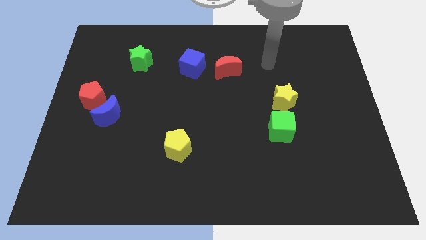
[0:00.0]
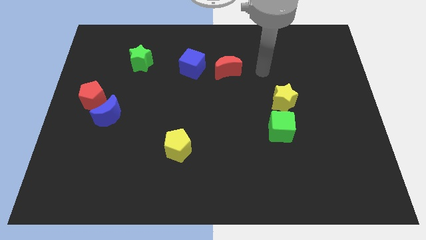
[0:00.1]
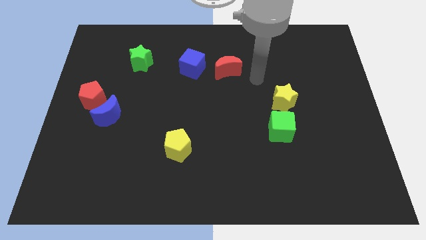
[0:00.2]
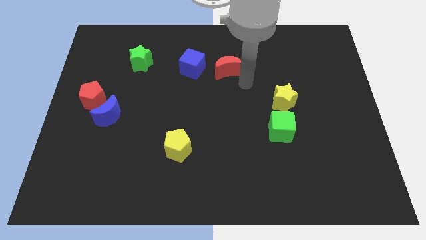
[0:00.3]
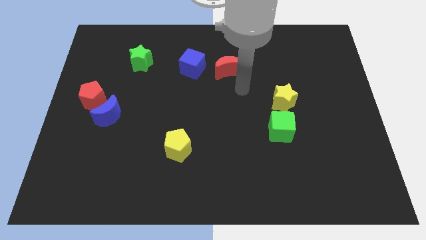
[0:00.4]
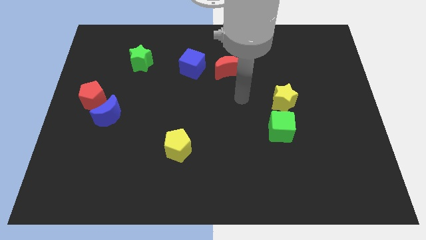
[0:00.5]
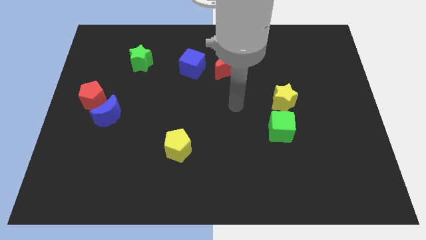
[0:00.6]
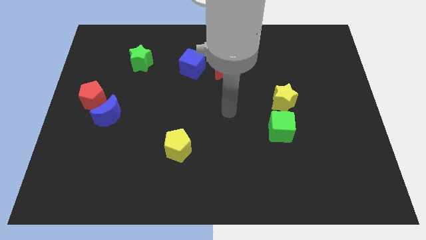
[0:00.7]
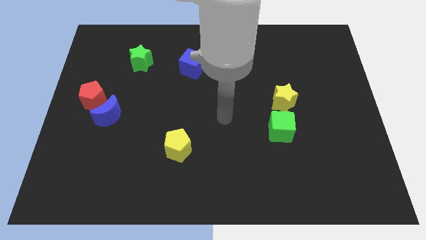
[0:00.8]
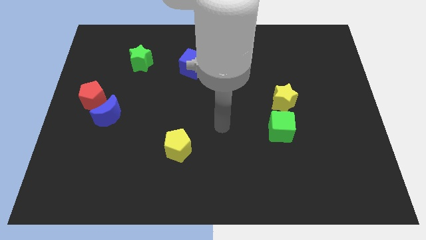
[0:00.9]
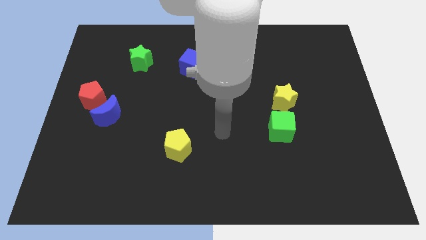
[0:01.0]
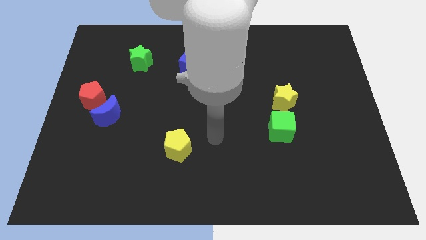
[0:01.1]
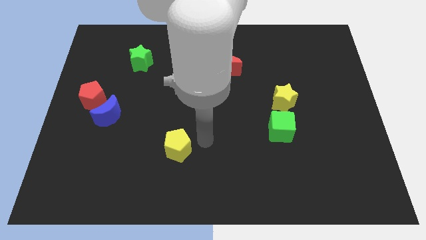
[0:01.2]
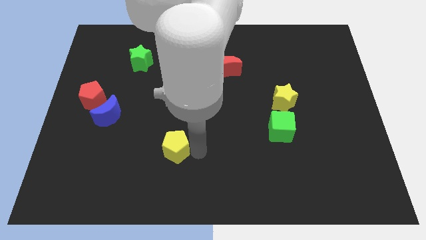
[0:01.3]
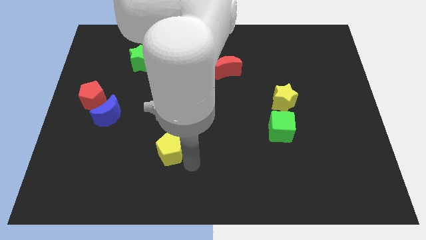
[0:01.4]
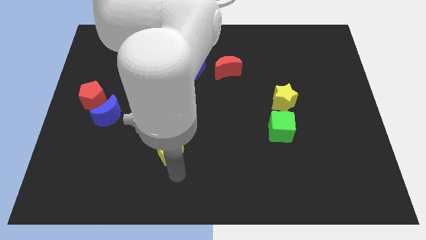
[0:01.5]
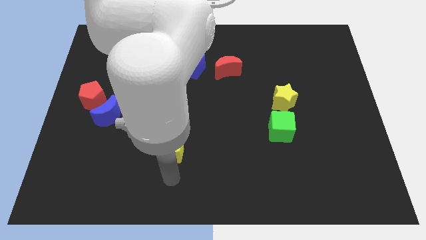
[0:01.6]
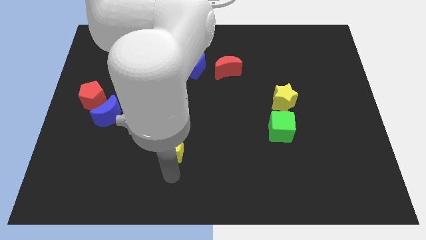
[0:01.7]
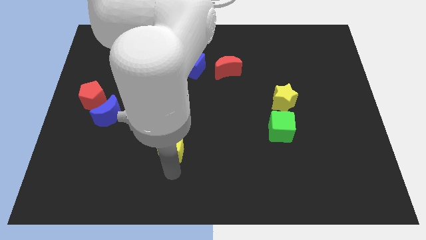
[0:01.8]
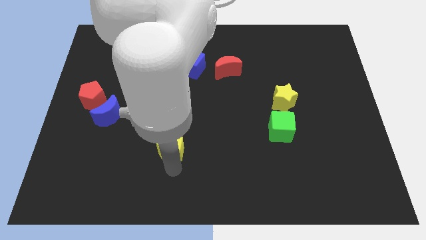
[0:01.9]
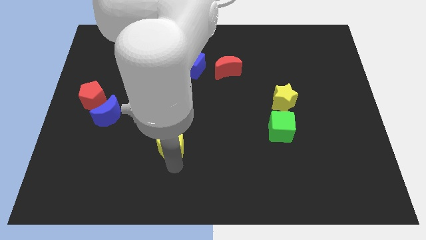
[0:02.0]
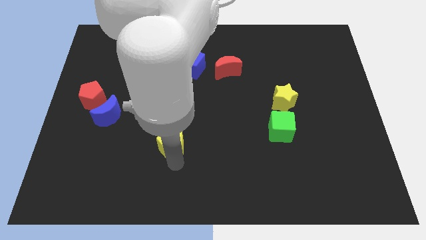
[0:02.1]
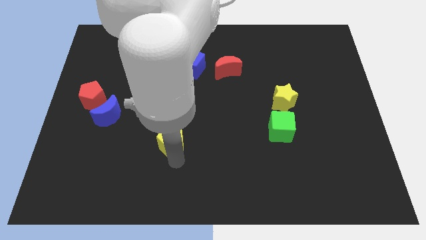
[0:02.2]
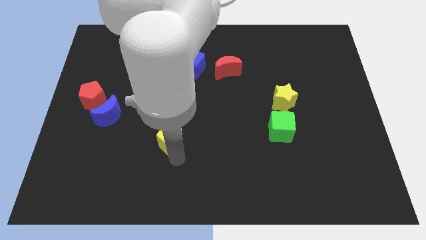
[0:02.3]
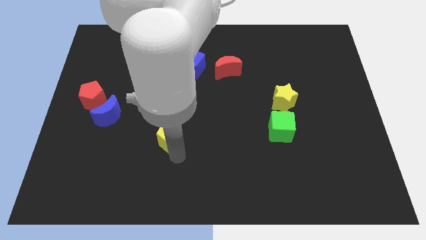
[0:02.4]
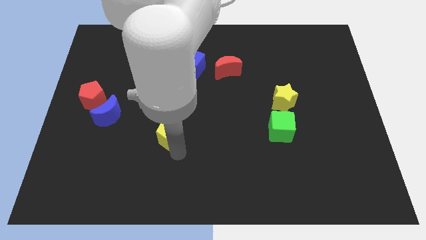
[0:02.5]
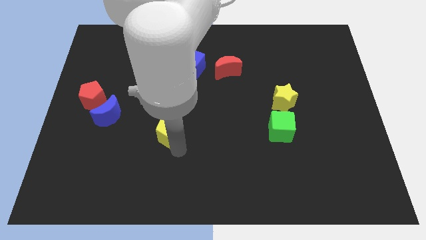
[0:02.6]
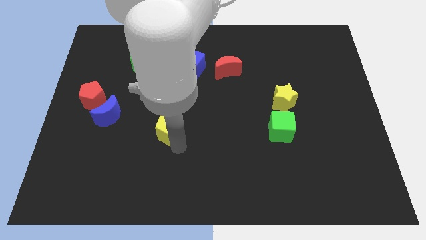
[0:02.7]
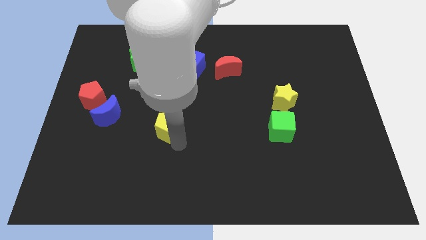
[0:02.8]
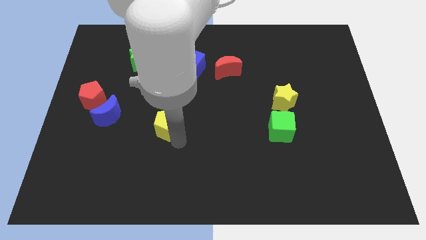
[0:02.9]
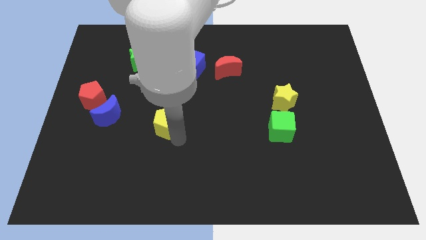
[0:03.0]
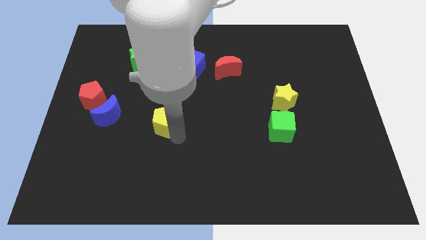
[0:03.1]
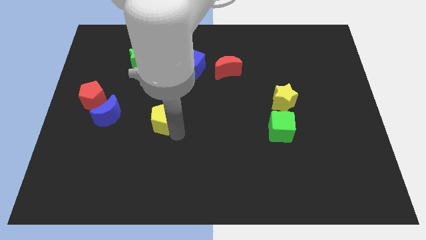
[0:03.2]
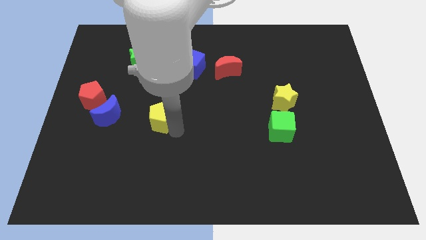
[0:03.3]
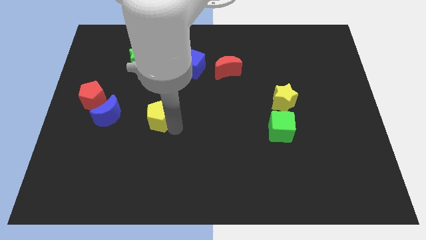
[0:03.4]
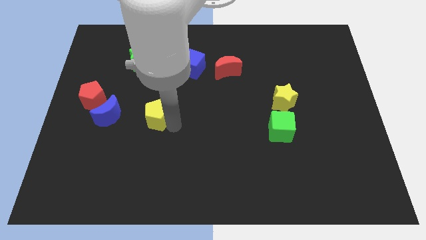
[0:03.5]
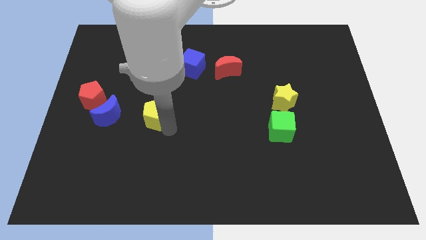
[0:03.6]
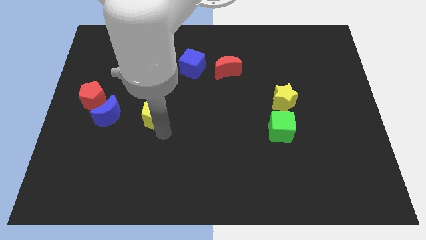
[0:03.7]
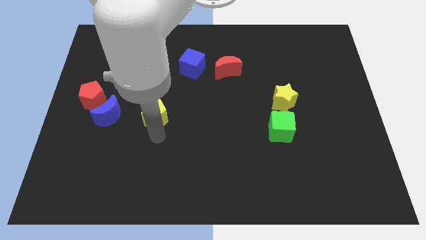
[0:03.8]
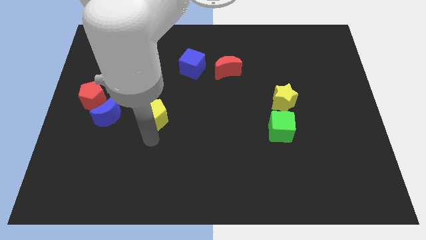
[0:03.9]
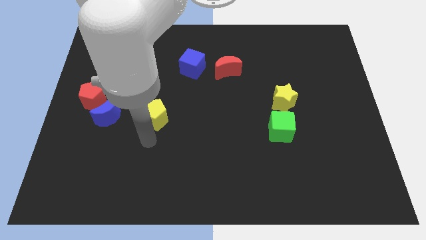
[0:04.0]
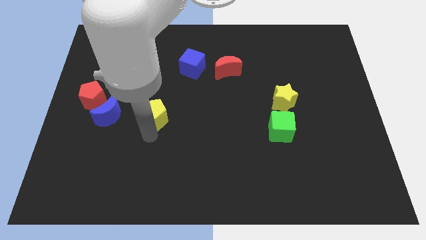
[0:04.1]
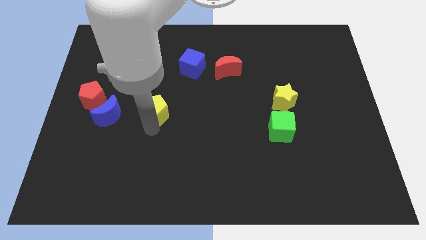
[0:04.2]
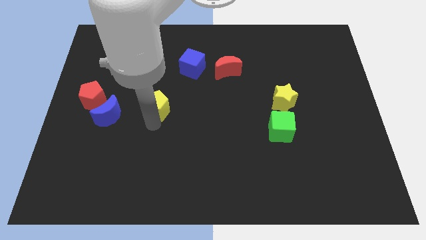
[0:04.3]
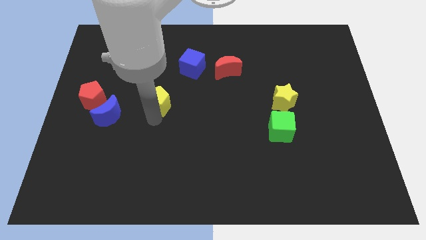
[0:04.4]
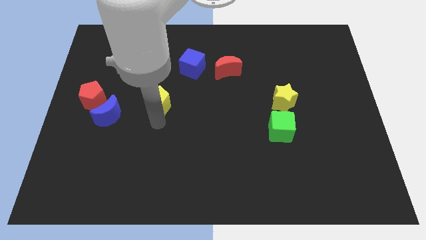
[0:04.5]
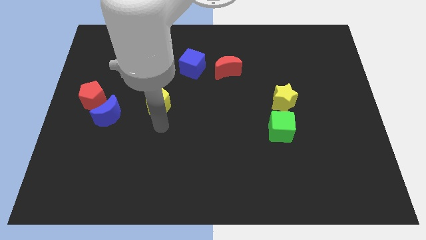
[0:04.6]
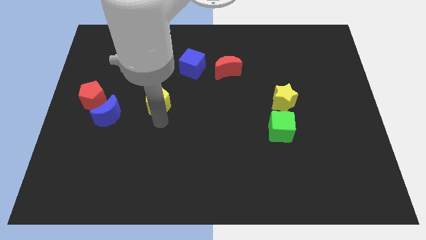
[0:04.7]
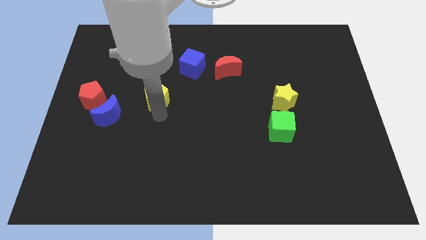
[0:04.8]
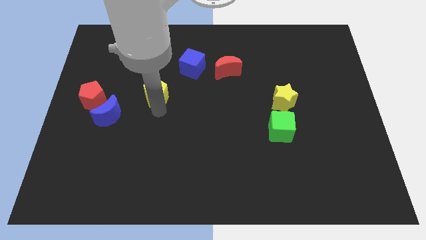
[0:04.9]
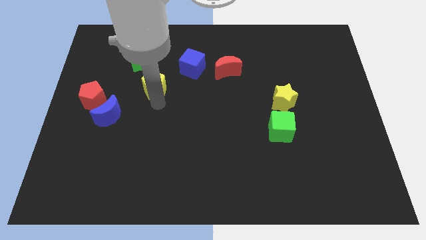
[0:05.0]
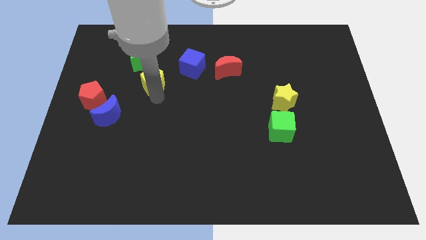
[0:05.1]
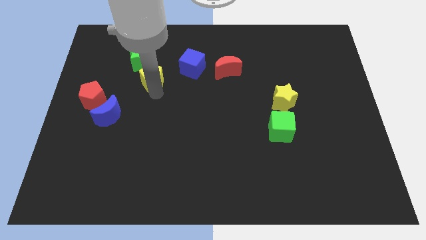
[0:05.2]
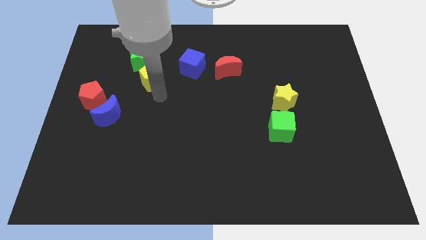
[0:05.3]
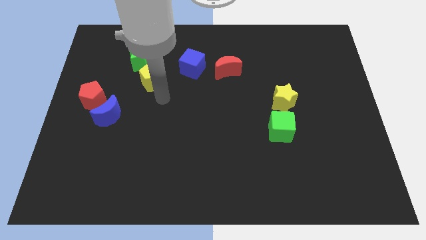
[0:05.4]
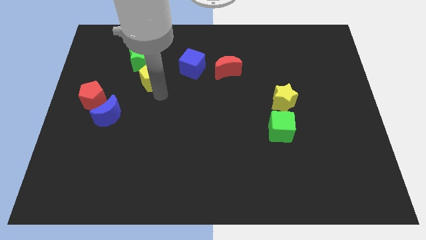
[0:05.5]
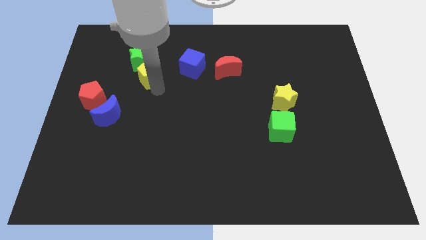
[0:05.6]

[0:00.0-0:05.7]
push the yellow pentagon next to the green star

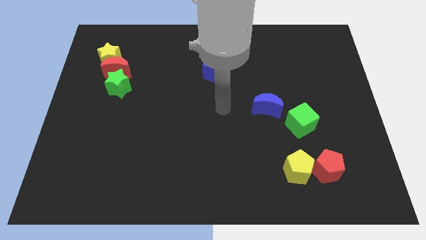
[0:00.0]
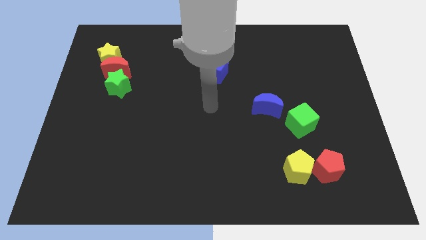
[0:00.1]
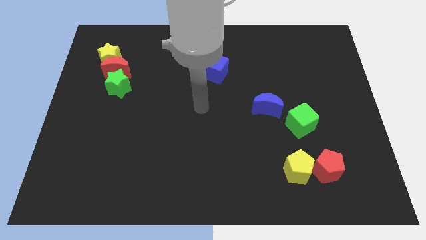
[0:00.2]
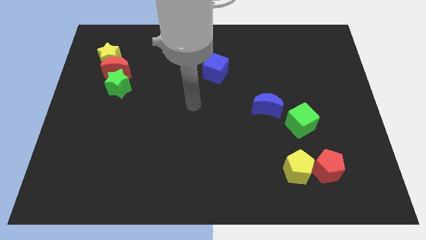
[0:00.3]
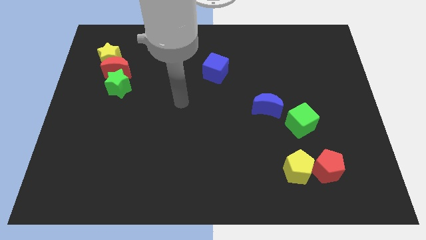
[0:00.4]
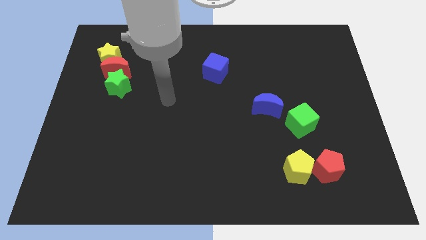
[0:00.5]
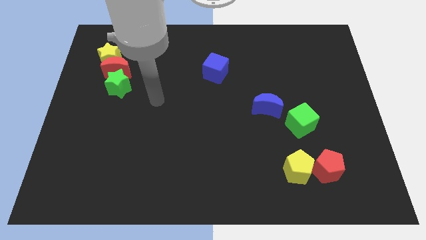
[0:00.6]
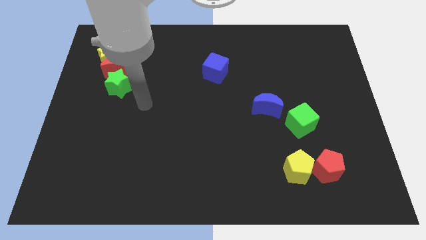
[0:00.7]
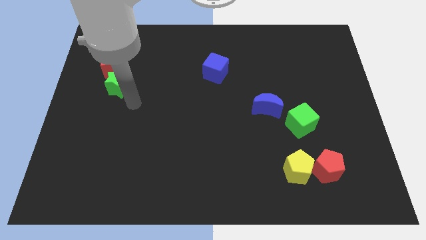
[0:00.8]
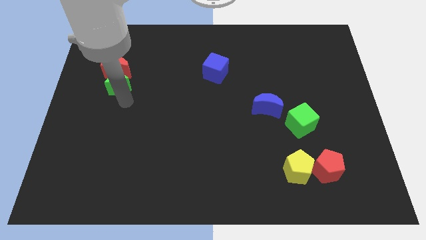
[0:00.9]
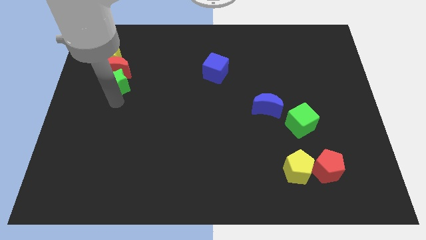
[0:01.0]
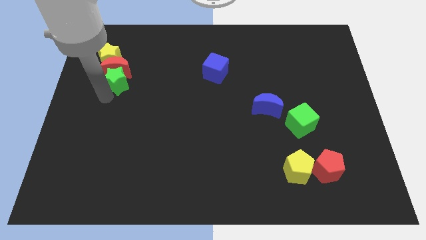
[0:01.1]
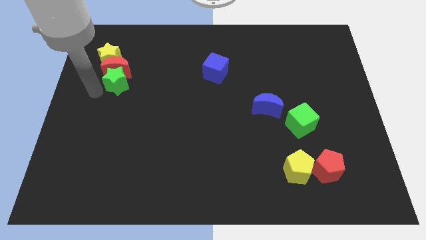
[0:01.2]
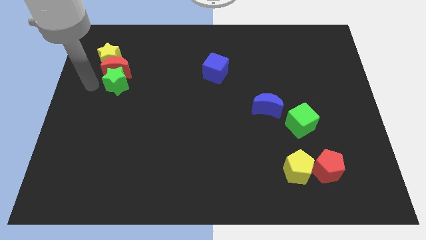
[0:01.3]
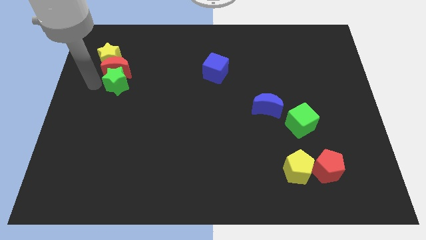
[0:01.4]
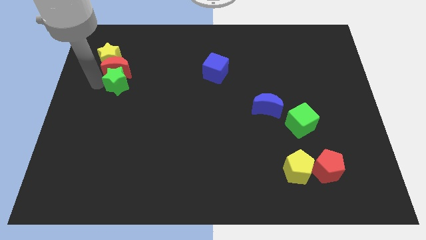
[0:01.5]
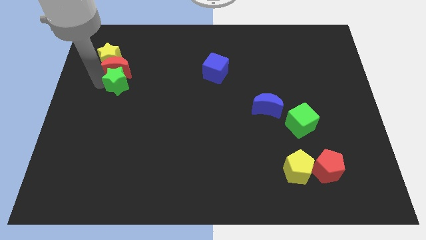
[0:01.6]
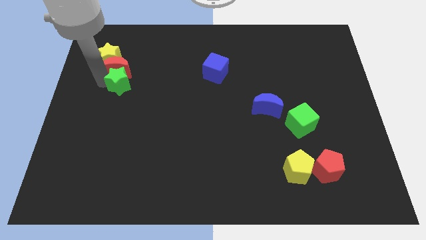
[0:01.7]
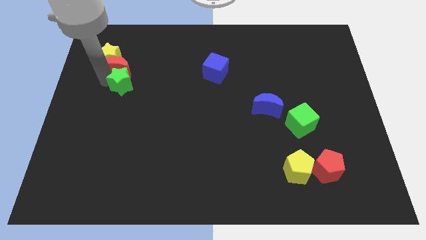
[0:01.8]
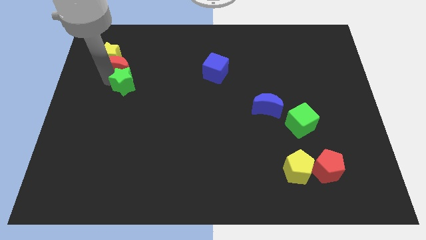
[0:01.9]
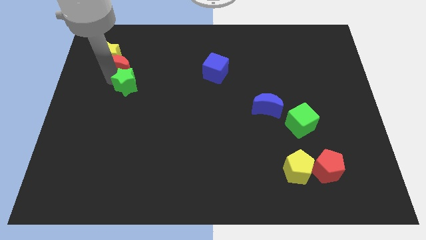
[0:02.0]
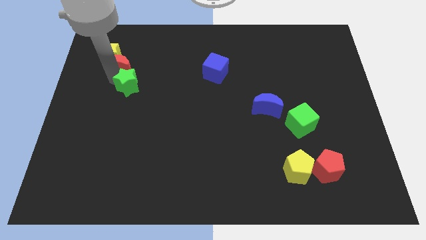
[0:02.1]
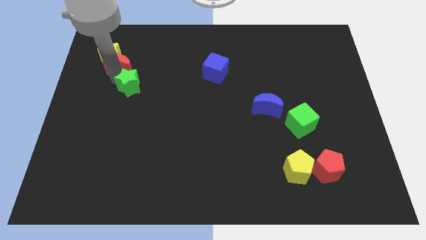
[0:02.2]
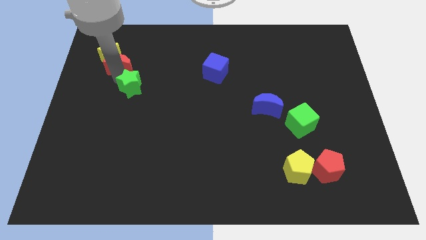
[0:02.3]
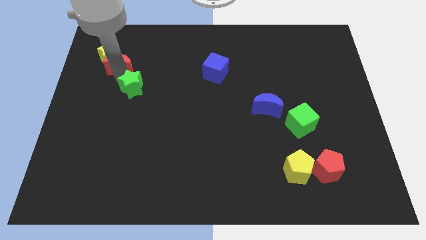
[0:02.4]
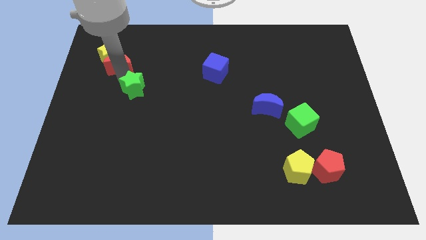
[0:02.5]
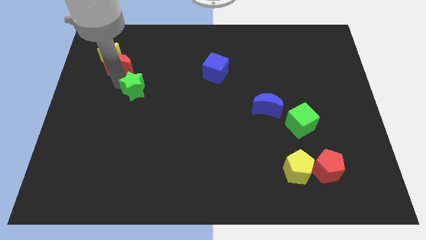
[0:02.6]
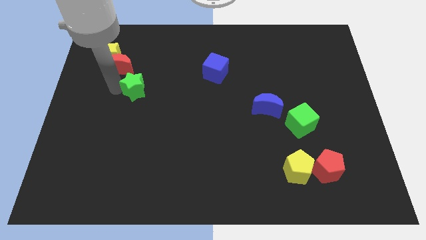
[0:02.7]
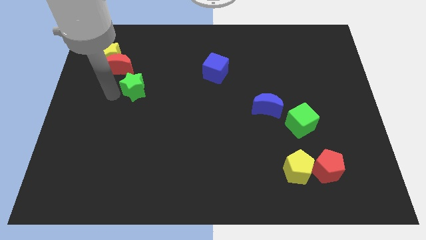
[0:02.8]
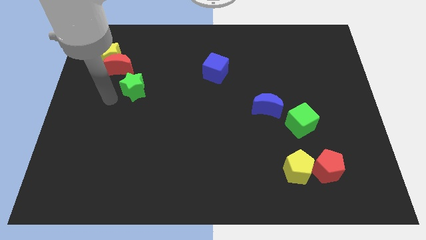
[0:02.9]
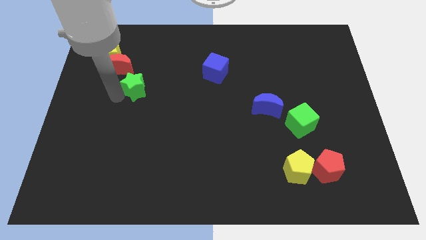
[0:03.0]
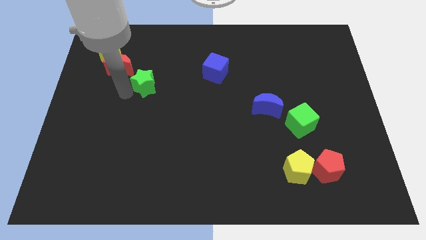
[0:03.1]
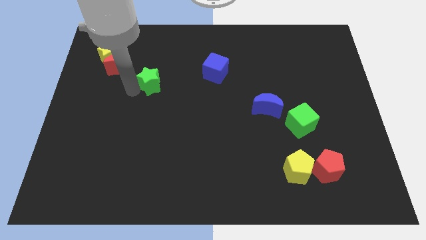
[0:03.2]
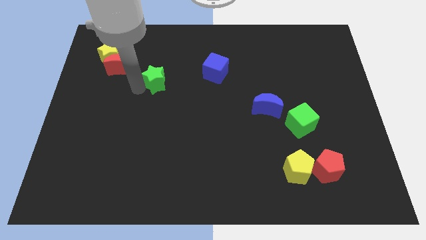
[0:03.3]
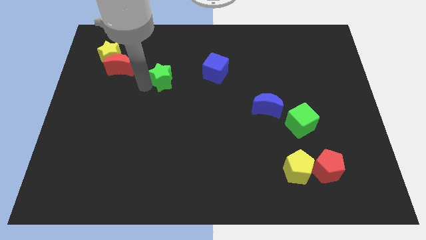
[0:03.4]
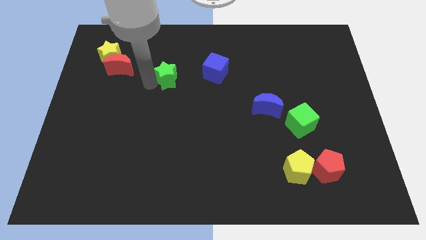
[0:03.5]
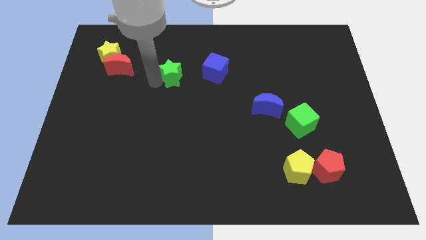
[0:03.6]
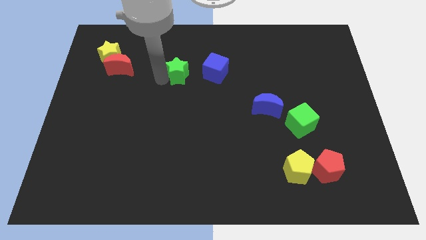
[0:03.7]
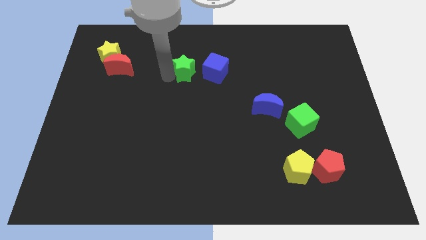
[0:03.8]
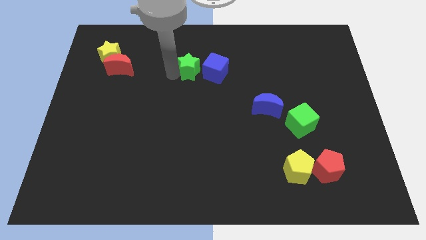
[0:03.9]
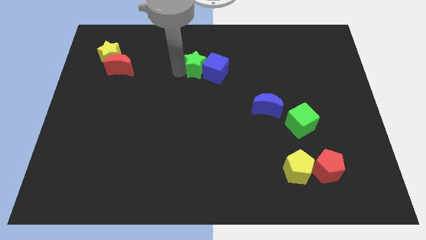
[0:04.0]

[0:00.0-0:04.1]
move the green star to the blue cube
